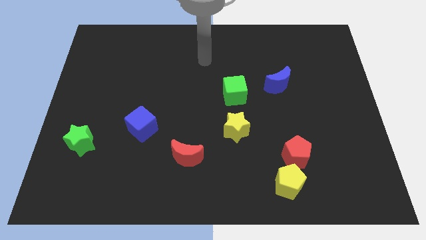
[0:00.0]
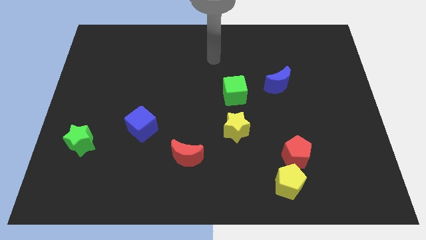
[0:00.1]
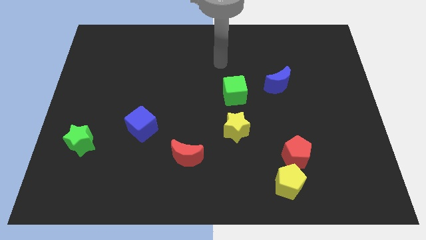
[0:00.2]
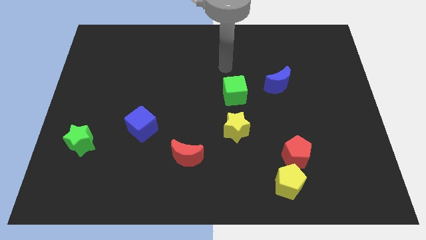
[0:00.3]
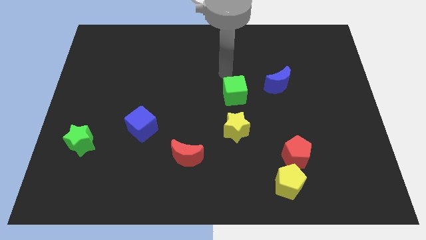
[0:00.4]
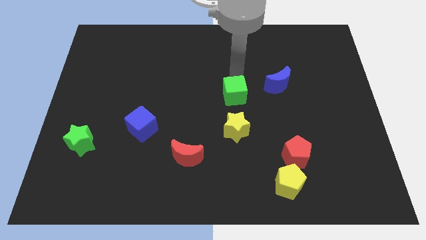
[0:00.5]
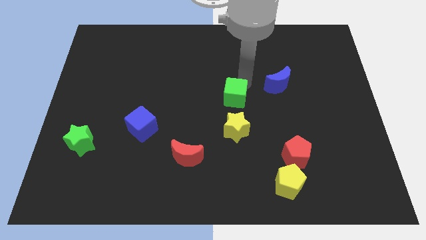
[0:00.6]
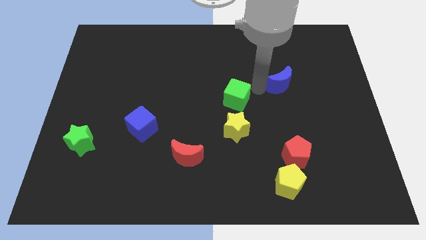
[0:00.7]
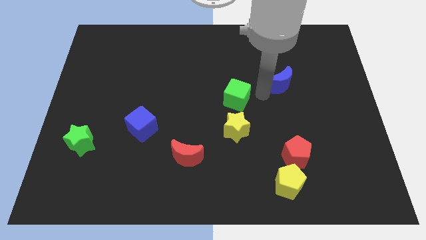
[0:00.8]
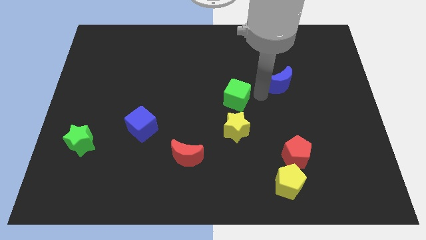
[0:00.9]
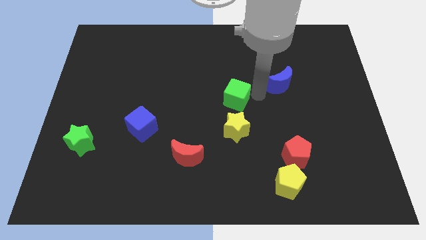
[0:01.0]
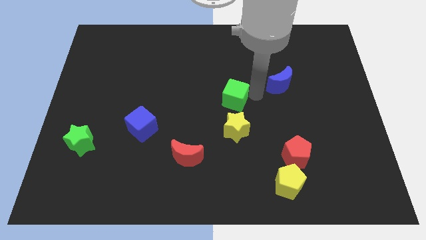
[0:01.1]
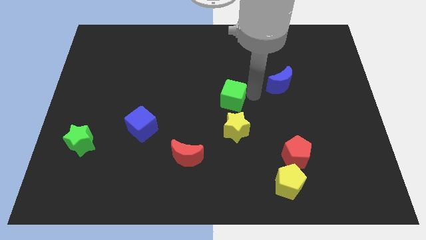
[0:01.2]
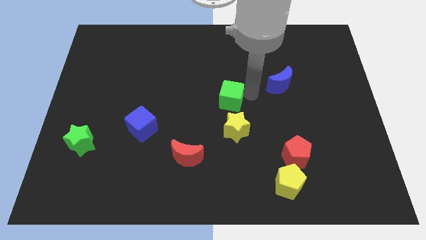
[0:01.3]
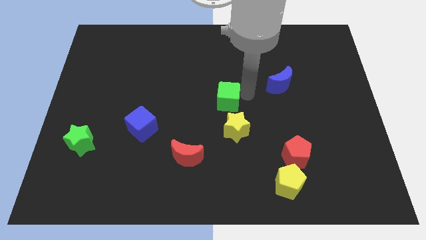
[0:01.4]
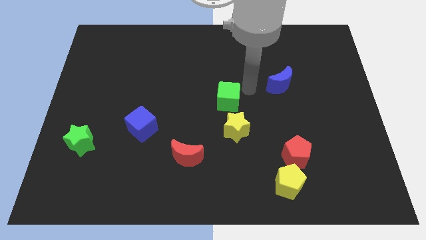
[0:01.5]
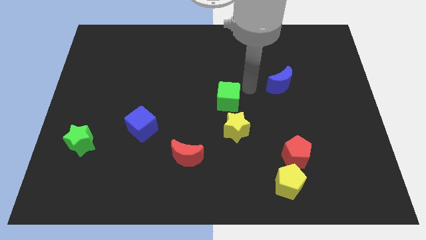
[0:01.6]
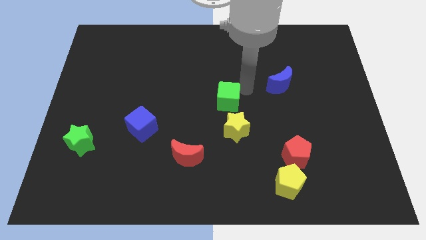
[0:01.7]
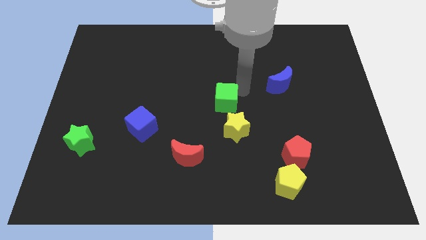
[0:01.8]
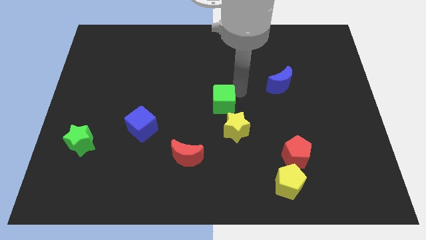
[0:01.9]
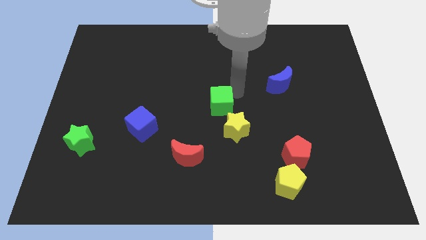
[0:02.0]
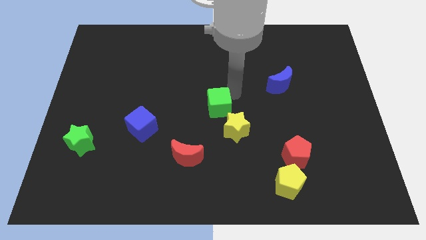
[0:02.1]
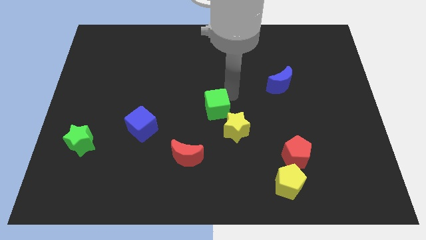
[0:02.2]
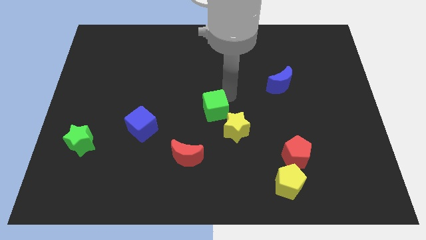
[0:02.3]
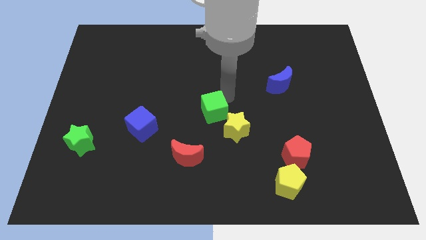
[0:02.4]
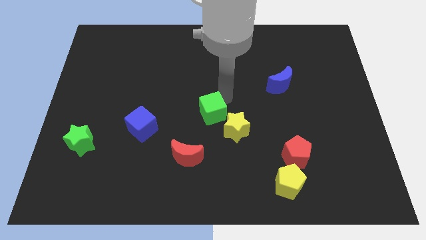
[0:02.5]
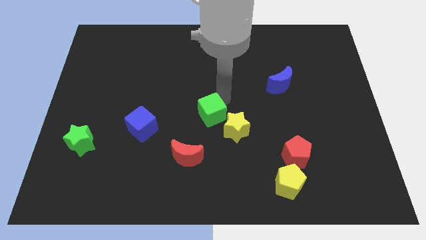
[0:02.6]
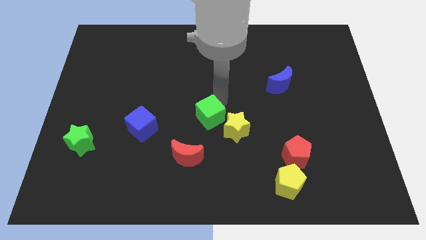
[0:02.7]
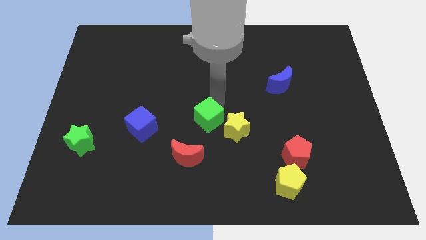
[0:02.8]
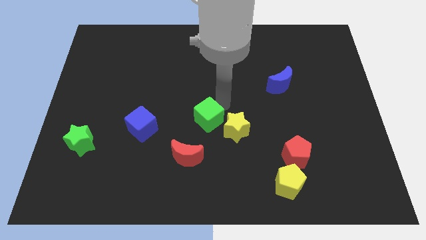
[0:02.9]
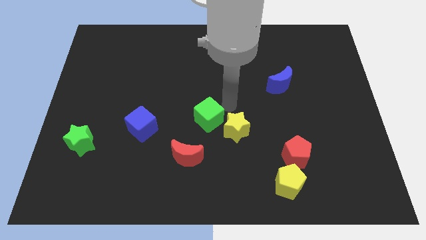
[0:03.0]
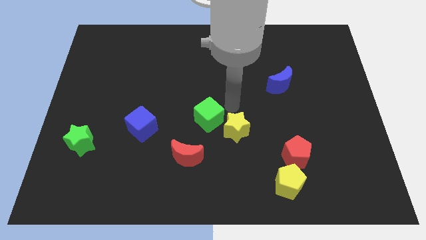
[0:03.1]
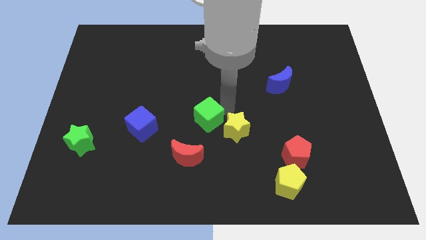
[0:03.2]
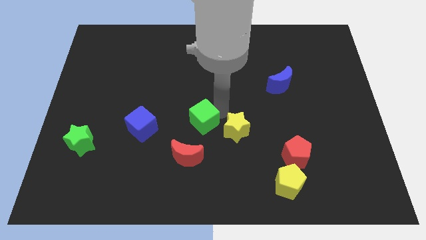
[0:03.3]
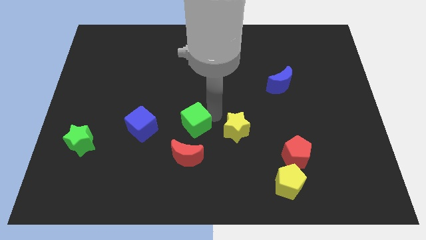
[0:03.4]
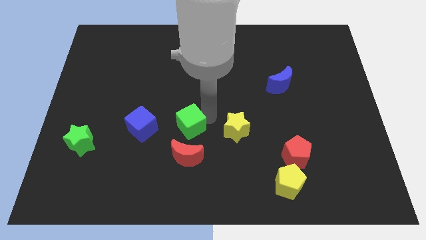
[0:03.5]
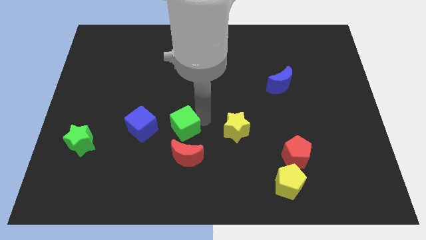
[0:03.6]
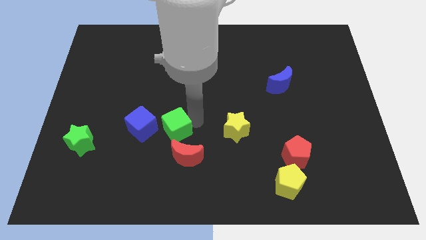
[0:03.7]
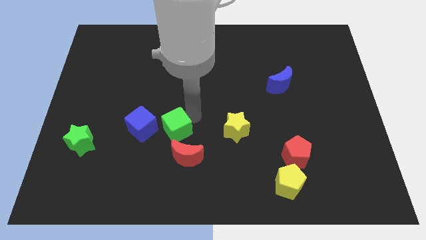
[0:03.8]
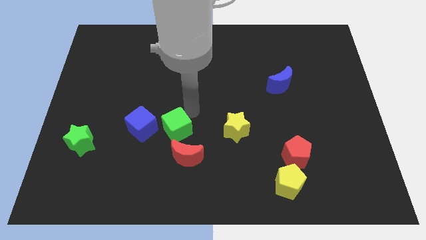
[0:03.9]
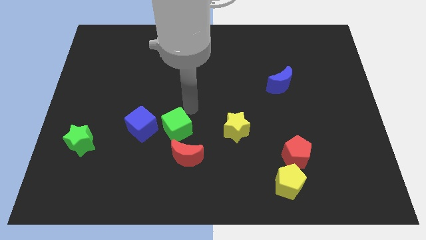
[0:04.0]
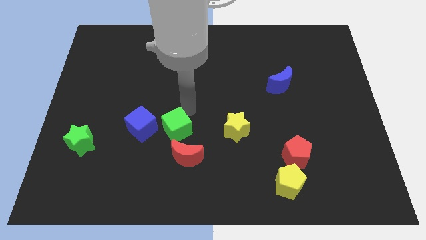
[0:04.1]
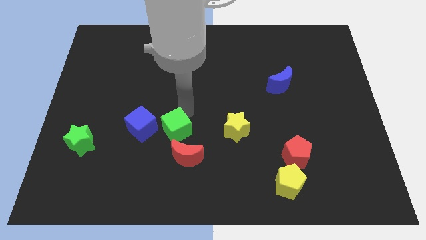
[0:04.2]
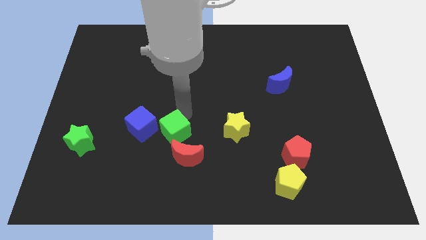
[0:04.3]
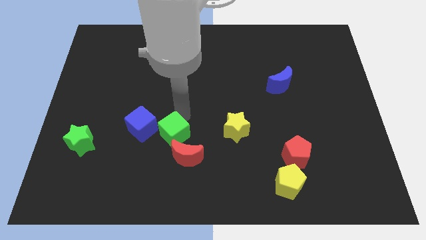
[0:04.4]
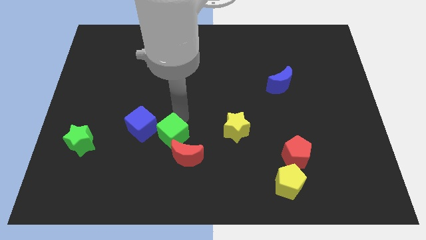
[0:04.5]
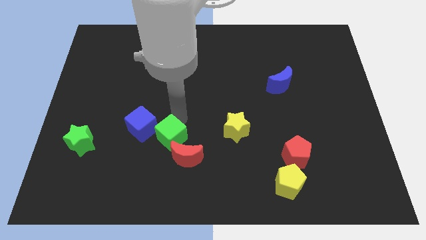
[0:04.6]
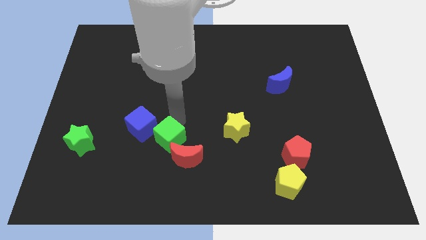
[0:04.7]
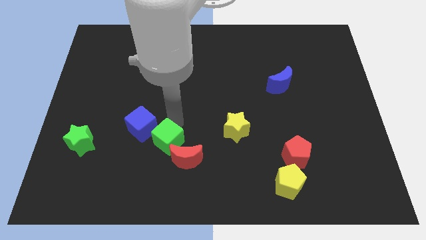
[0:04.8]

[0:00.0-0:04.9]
slide the green cube downwards and then left

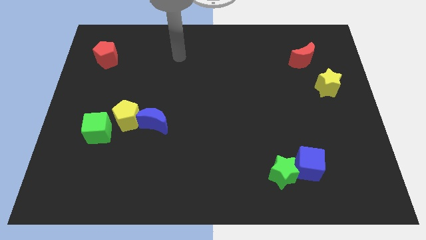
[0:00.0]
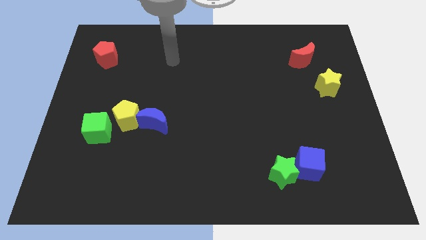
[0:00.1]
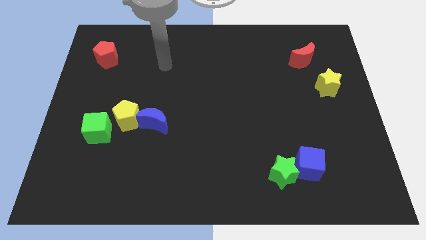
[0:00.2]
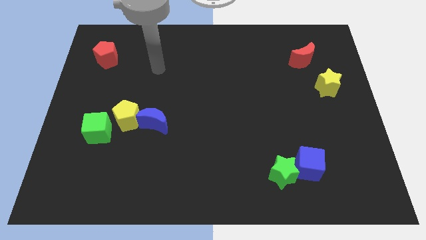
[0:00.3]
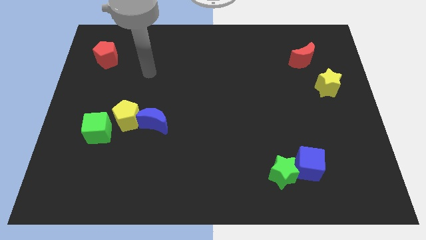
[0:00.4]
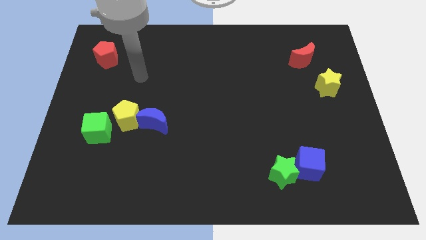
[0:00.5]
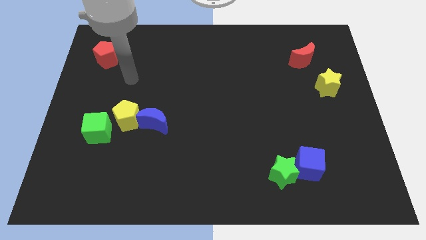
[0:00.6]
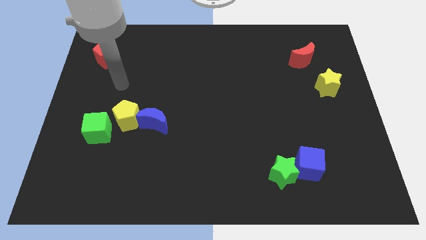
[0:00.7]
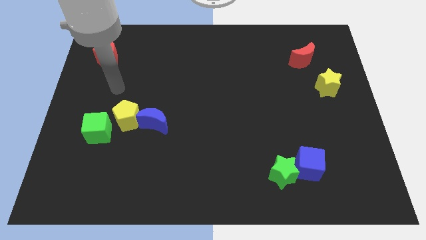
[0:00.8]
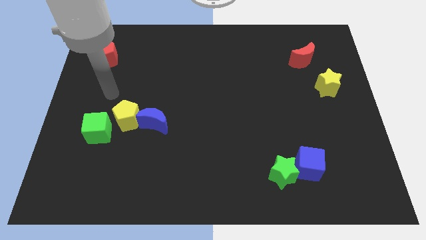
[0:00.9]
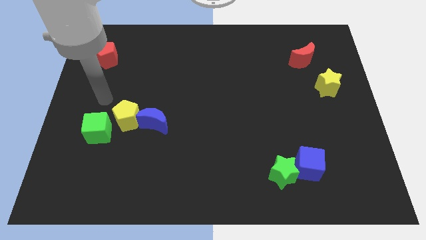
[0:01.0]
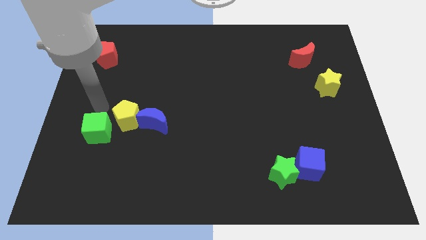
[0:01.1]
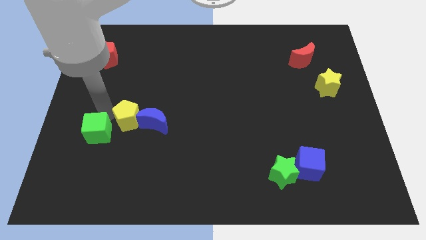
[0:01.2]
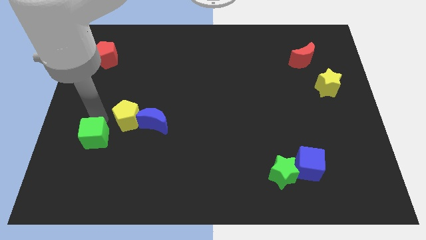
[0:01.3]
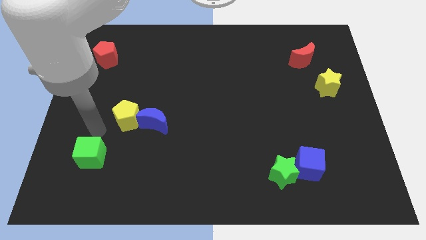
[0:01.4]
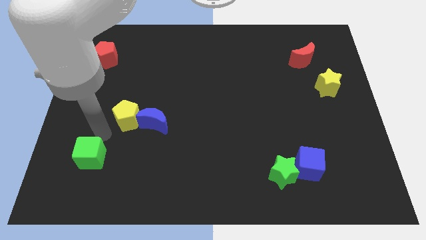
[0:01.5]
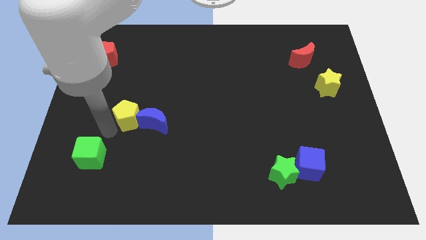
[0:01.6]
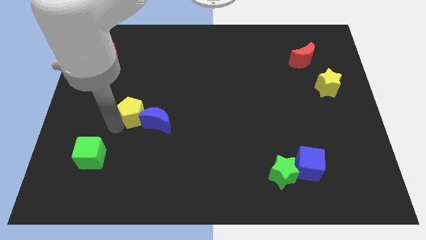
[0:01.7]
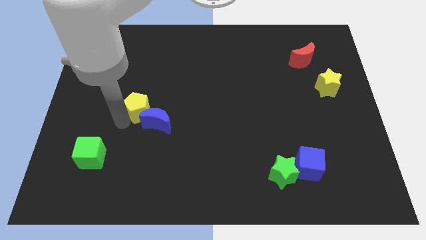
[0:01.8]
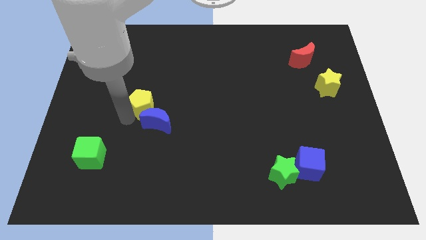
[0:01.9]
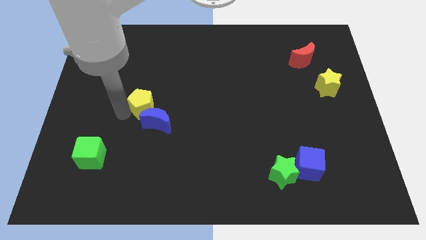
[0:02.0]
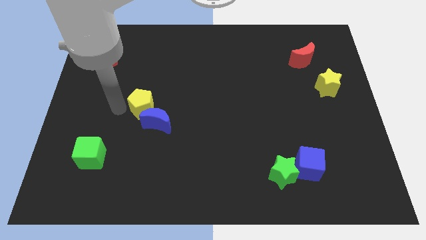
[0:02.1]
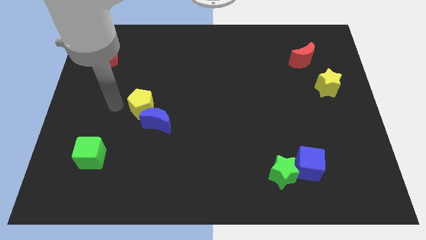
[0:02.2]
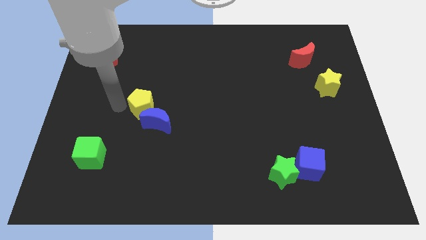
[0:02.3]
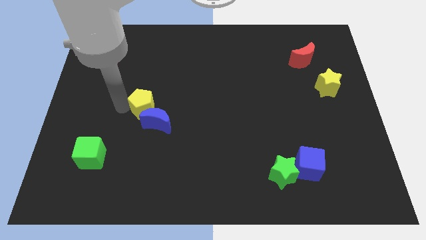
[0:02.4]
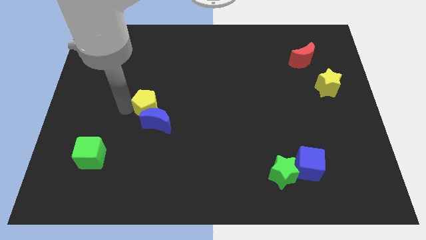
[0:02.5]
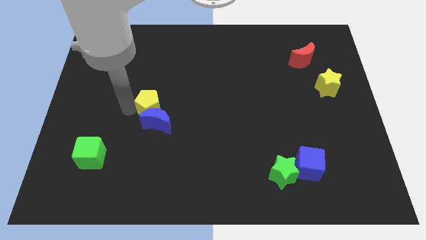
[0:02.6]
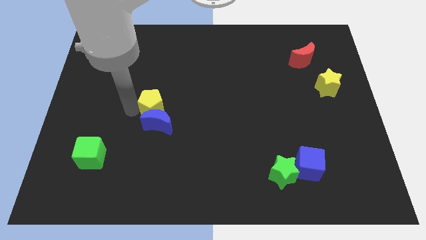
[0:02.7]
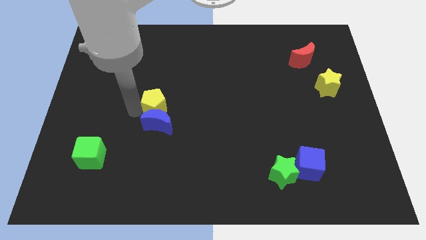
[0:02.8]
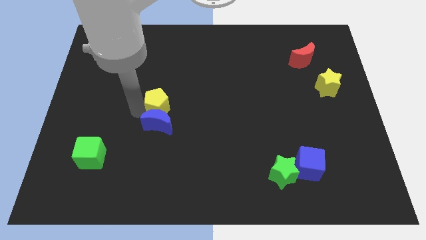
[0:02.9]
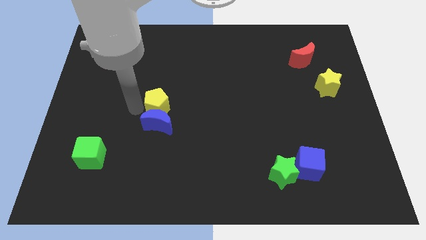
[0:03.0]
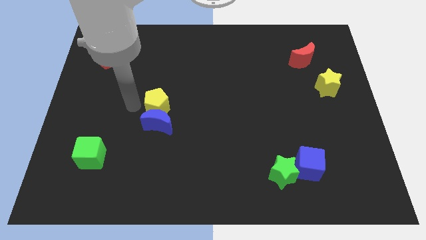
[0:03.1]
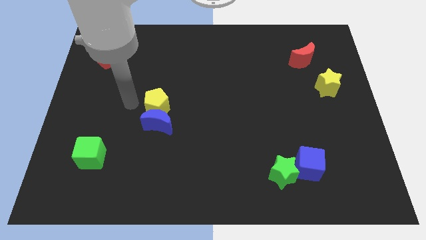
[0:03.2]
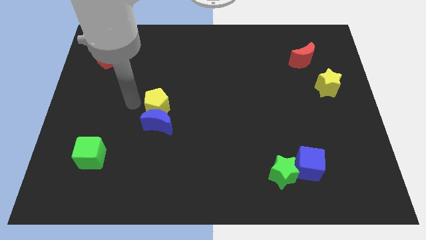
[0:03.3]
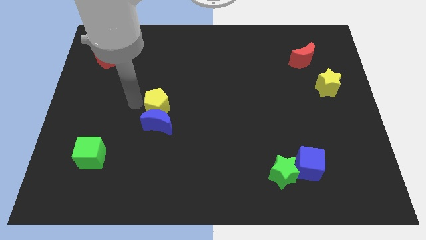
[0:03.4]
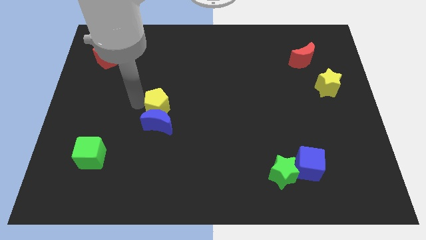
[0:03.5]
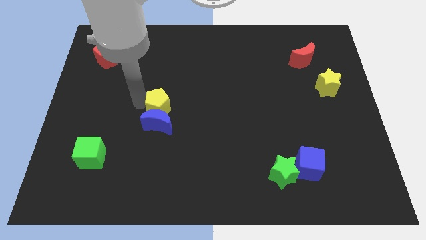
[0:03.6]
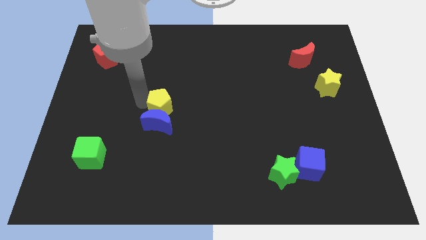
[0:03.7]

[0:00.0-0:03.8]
push the yellow pentagon right somewhat
